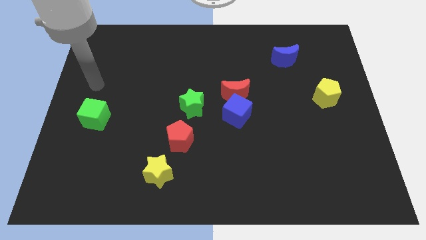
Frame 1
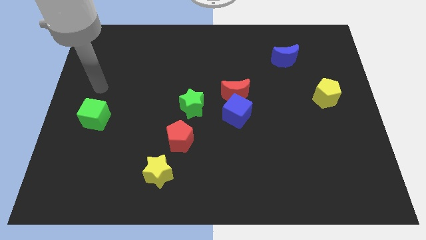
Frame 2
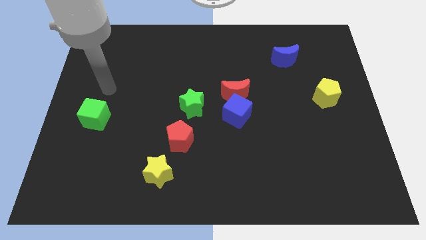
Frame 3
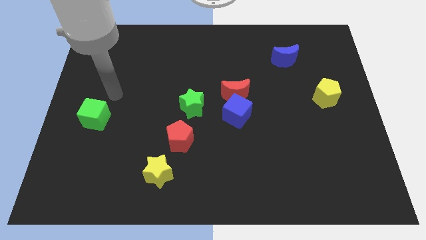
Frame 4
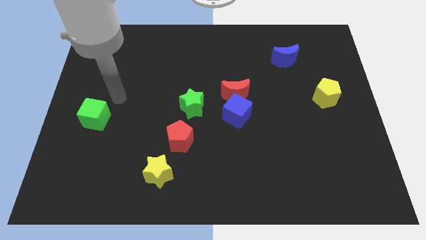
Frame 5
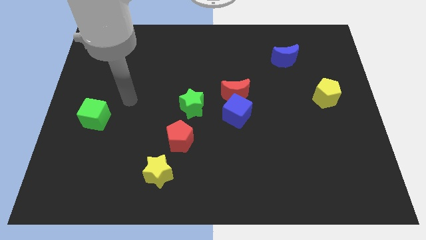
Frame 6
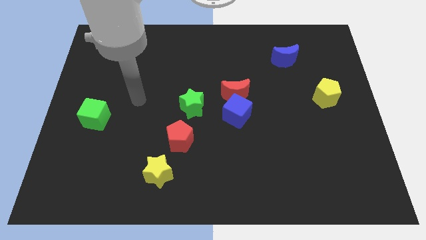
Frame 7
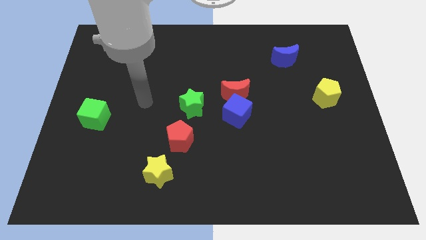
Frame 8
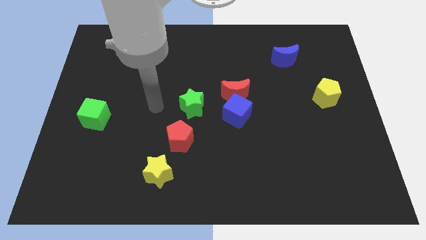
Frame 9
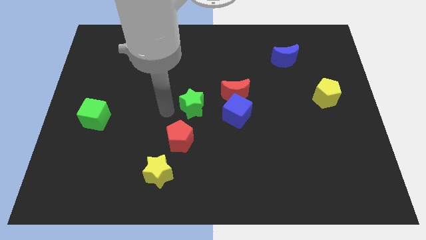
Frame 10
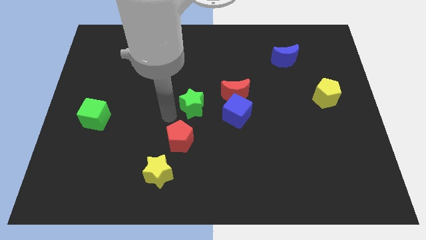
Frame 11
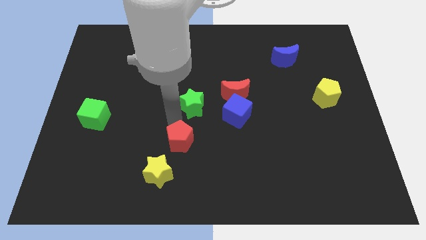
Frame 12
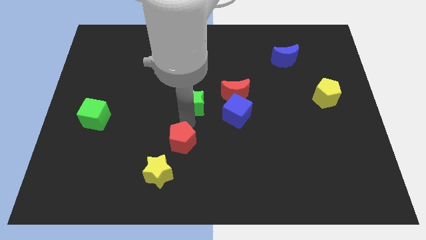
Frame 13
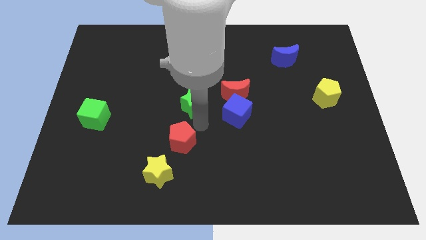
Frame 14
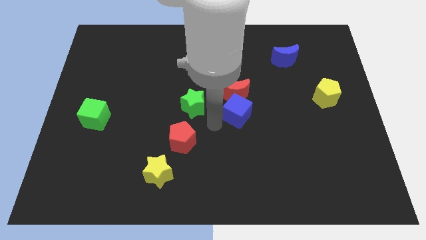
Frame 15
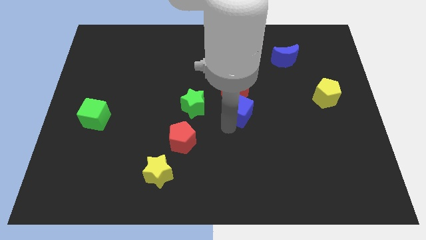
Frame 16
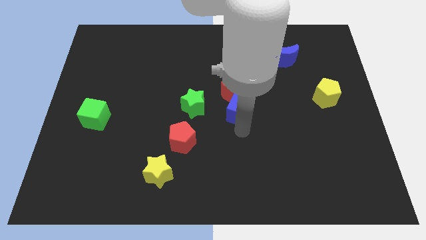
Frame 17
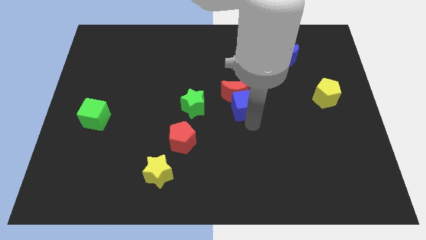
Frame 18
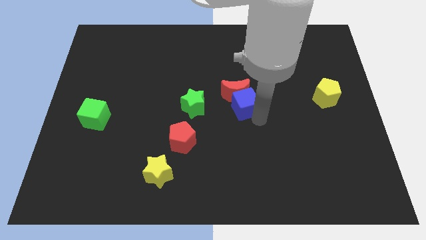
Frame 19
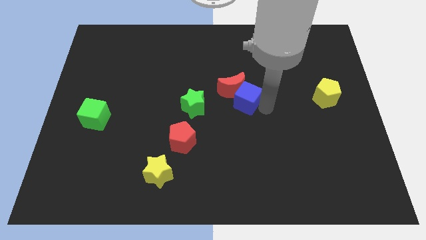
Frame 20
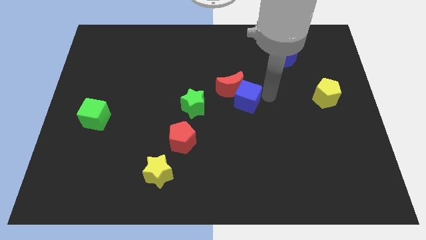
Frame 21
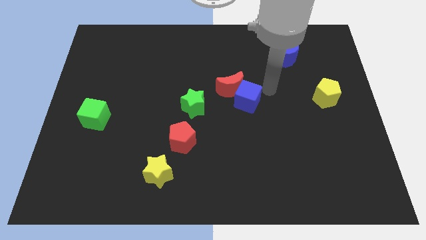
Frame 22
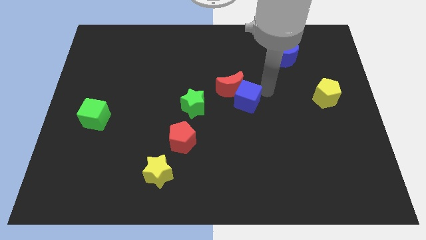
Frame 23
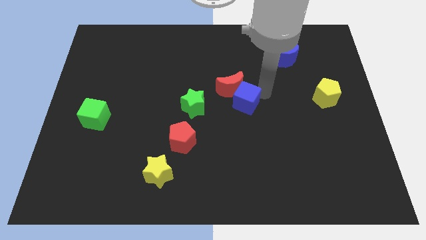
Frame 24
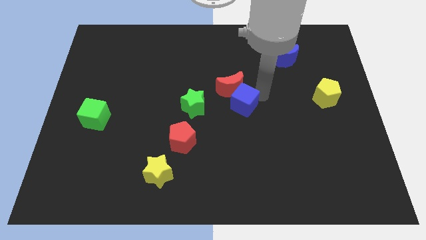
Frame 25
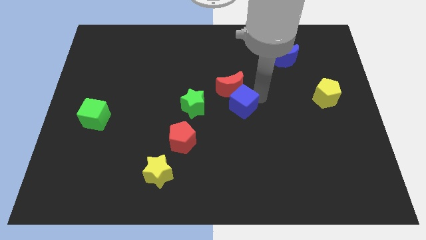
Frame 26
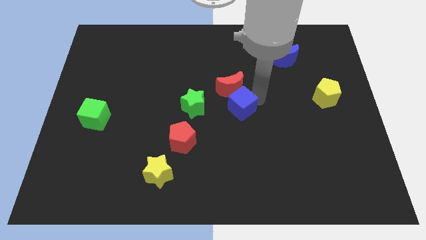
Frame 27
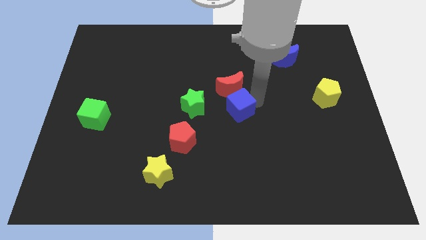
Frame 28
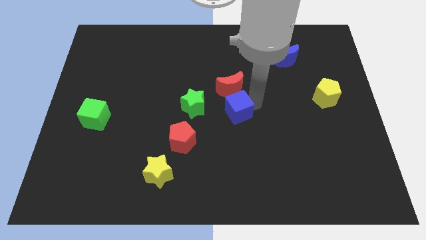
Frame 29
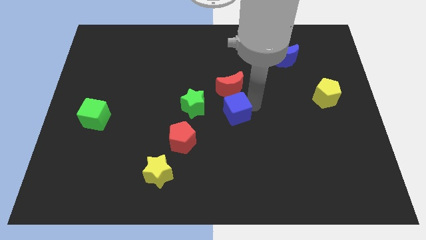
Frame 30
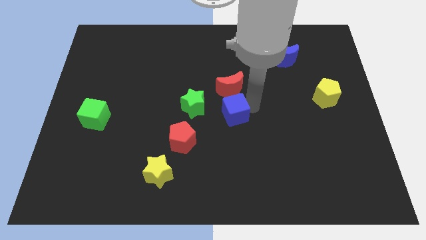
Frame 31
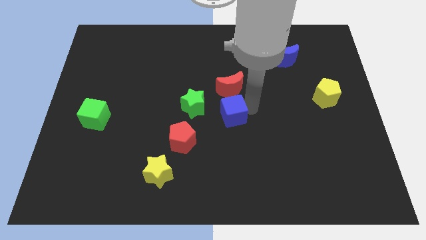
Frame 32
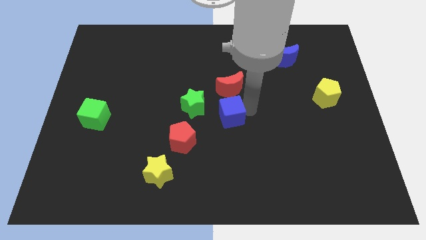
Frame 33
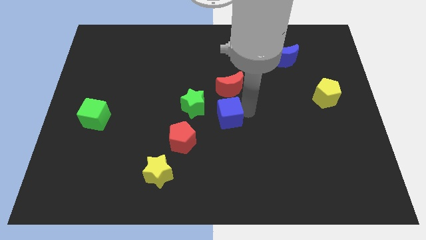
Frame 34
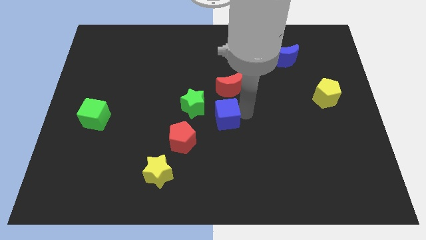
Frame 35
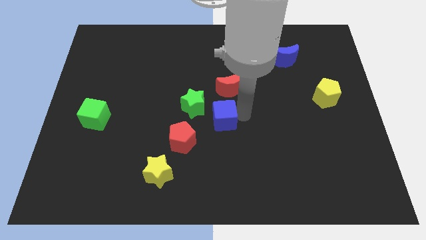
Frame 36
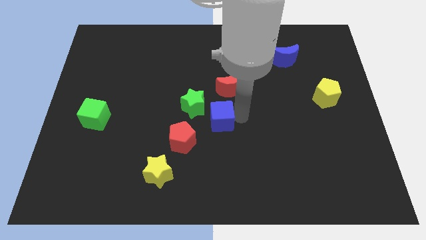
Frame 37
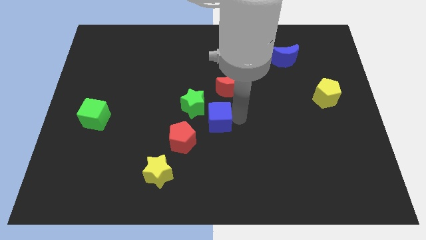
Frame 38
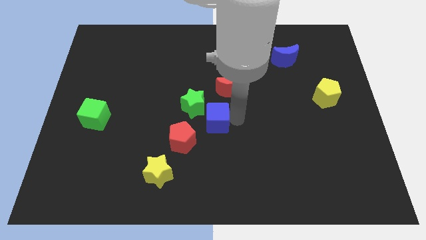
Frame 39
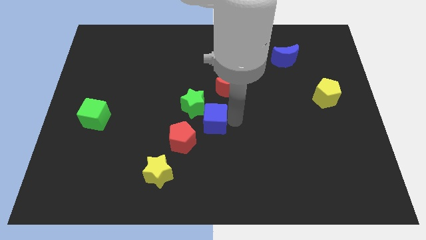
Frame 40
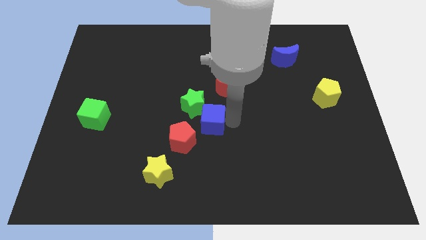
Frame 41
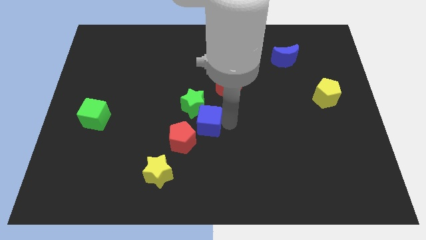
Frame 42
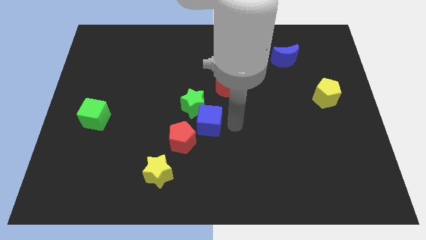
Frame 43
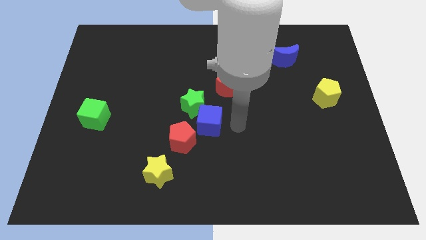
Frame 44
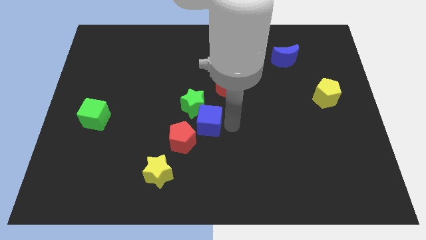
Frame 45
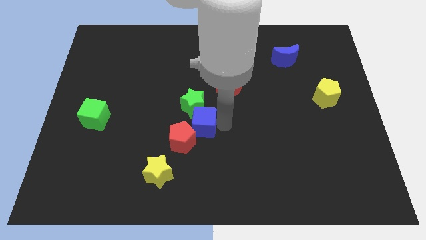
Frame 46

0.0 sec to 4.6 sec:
slightly slide the blue cube to the left

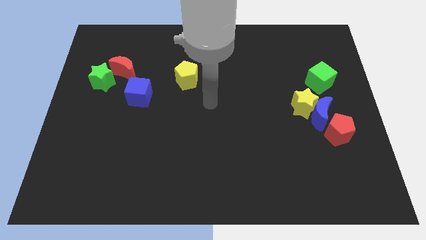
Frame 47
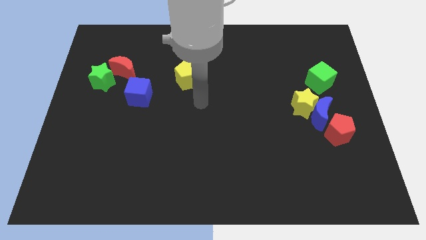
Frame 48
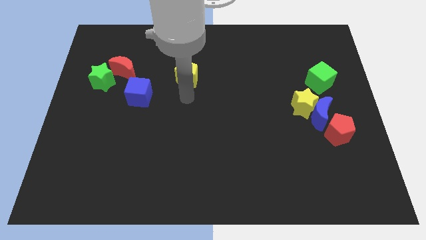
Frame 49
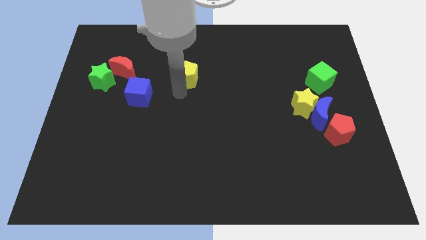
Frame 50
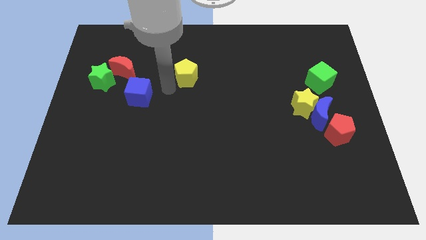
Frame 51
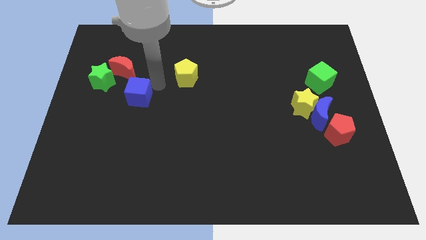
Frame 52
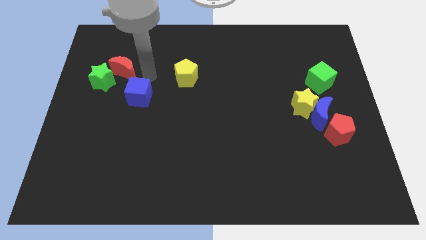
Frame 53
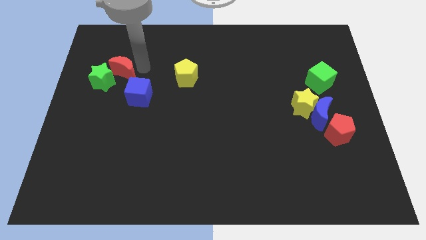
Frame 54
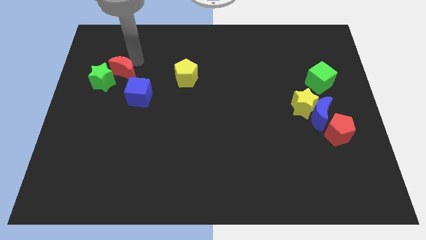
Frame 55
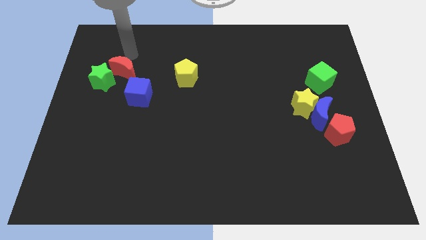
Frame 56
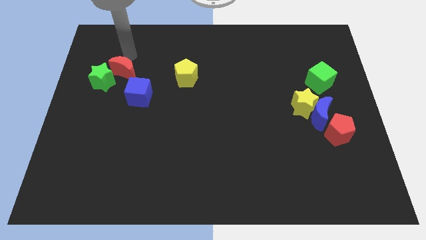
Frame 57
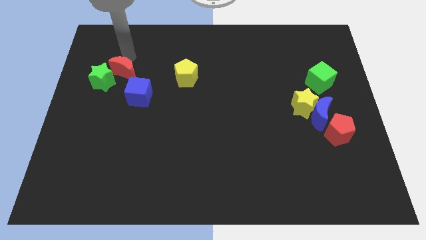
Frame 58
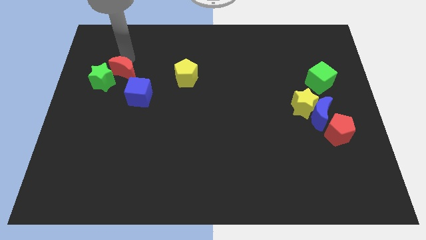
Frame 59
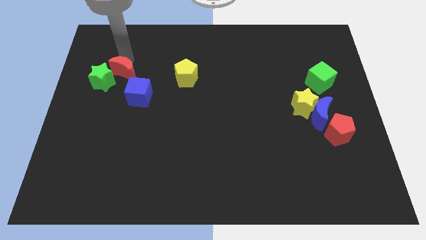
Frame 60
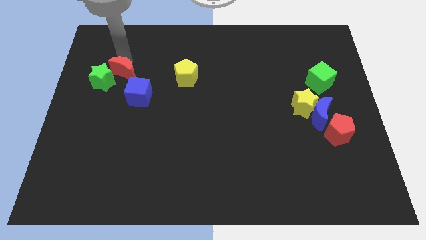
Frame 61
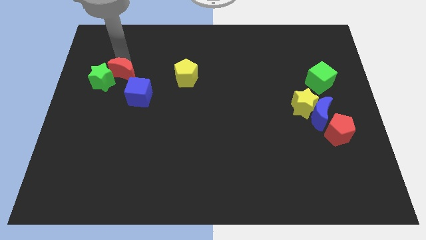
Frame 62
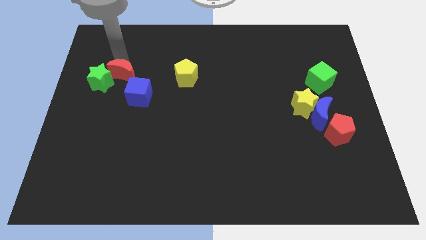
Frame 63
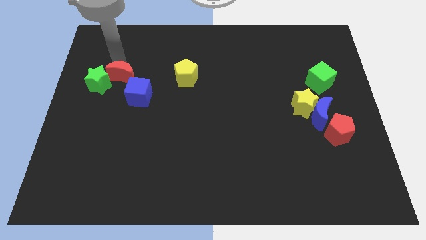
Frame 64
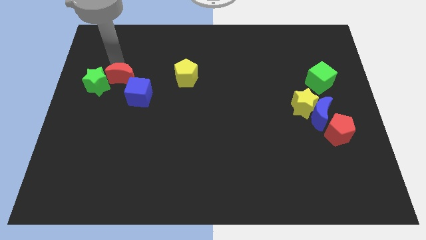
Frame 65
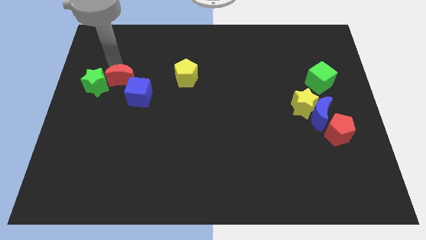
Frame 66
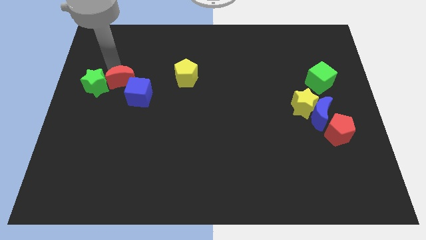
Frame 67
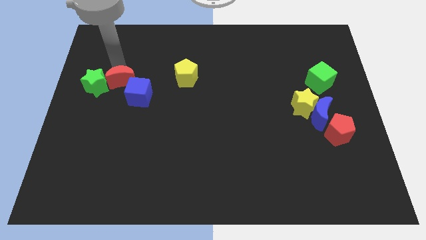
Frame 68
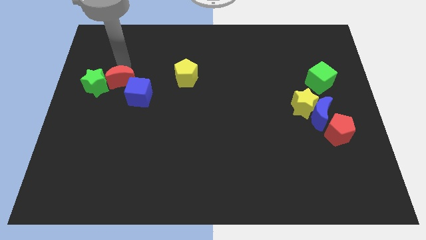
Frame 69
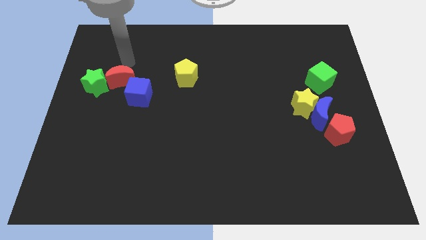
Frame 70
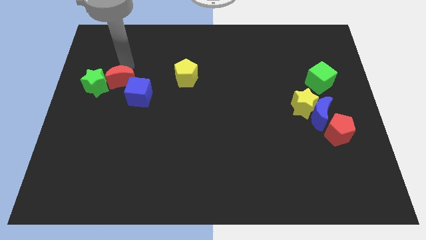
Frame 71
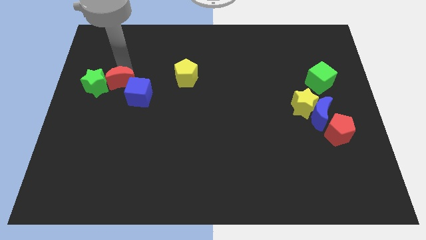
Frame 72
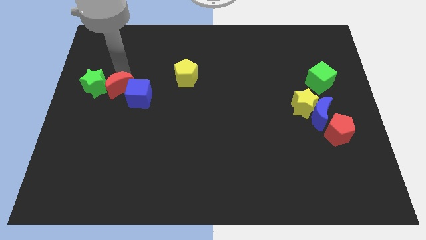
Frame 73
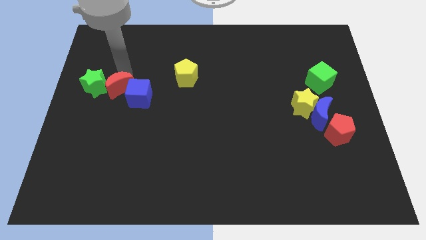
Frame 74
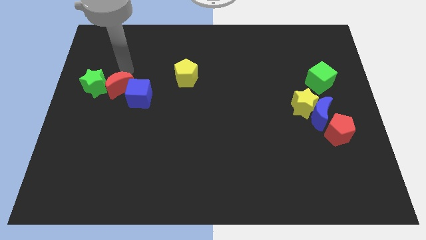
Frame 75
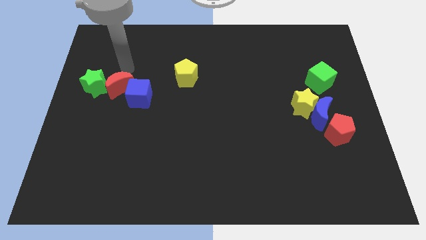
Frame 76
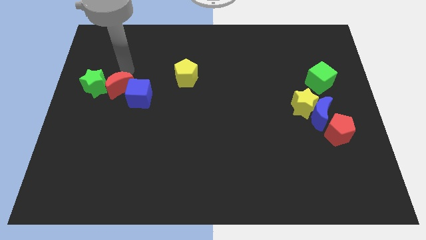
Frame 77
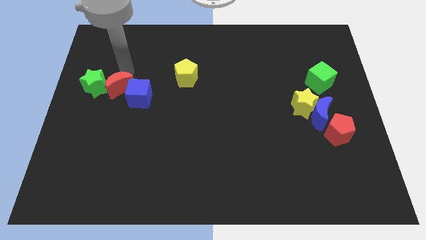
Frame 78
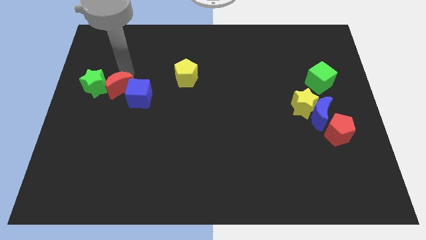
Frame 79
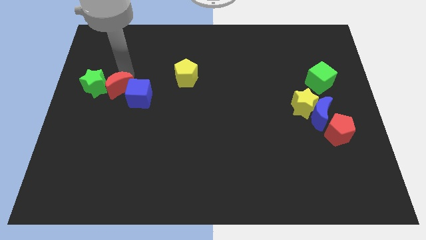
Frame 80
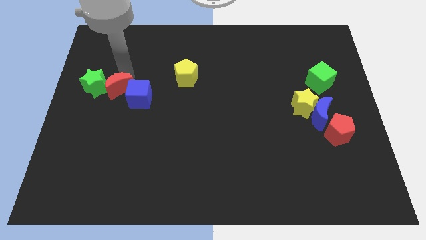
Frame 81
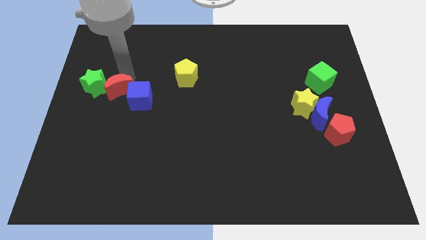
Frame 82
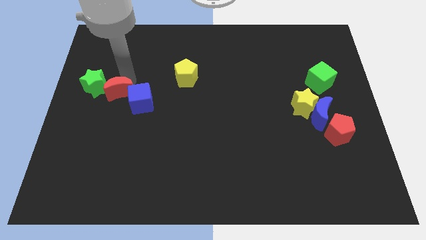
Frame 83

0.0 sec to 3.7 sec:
slide the red moon down a bit
